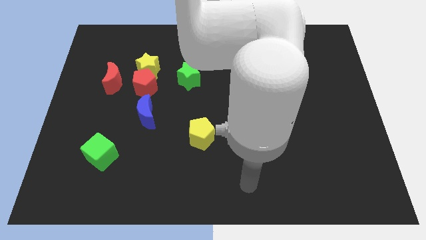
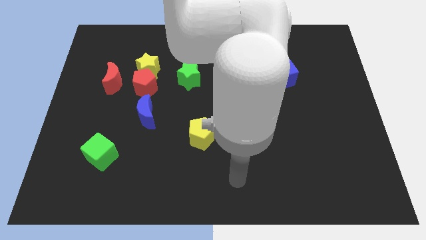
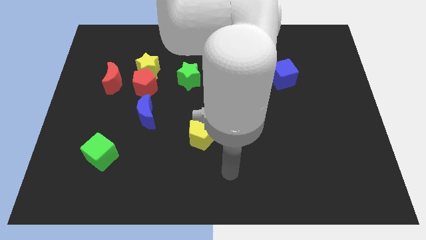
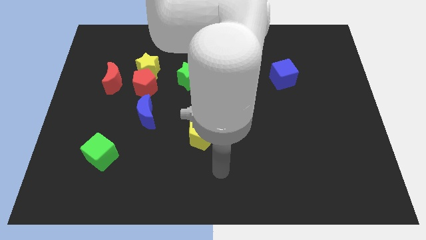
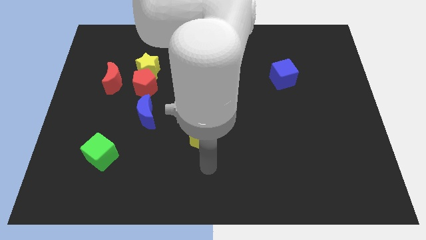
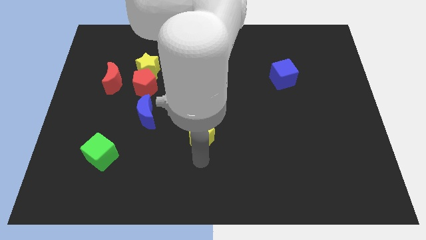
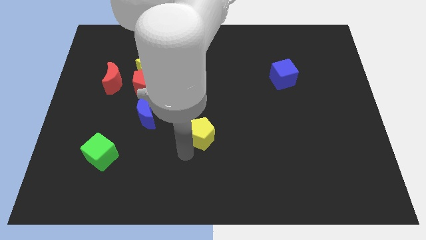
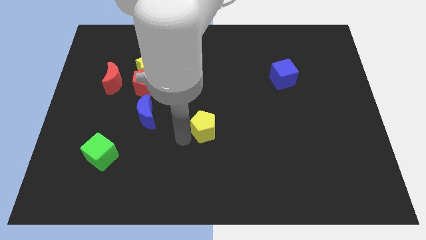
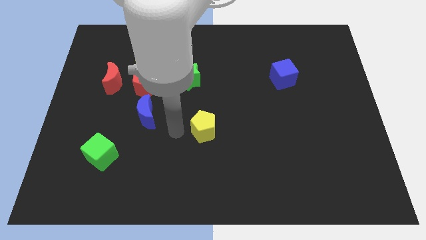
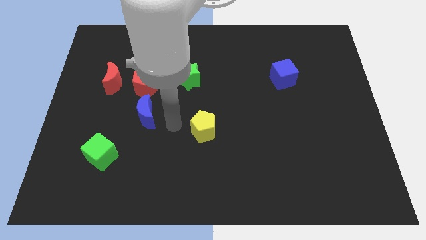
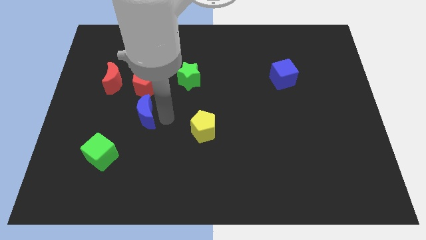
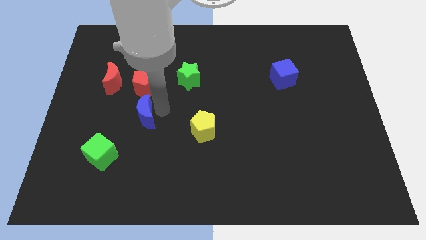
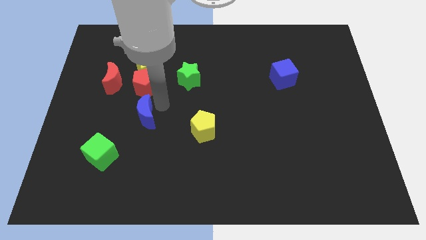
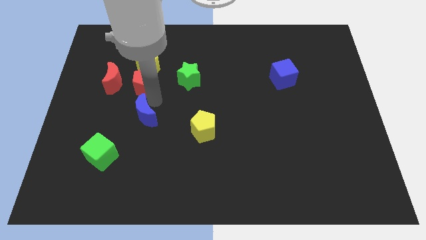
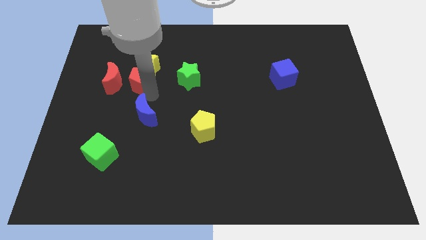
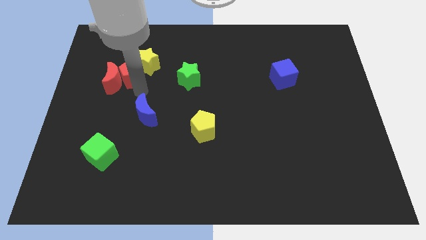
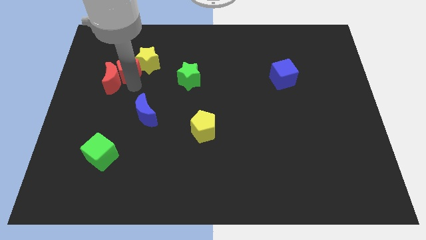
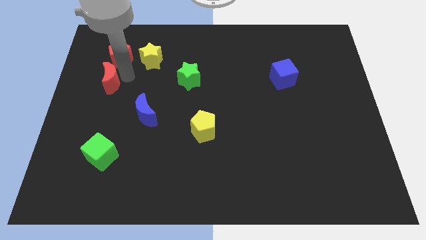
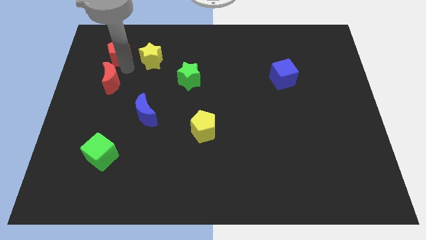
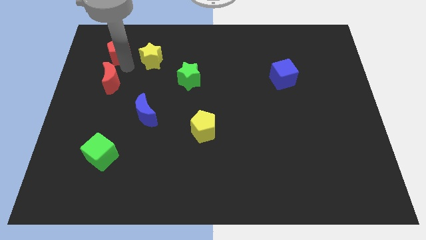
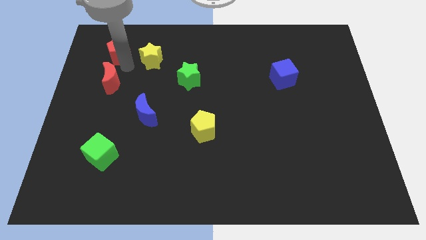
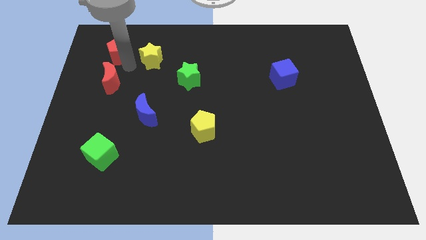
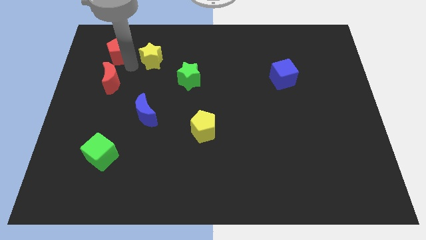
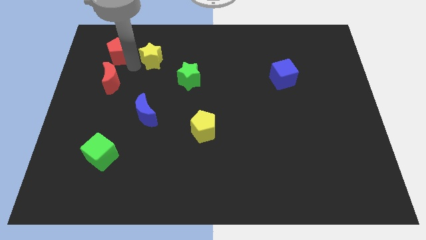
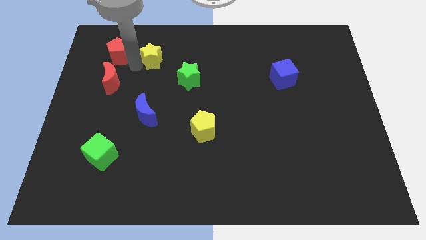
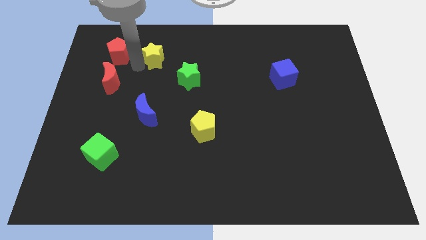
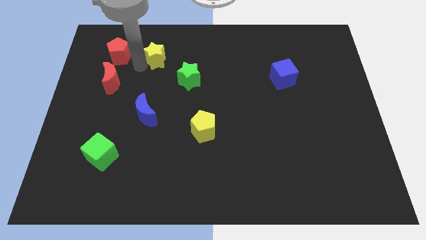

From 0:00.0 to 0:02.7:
pull the yellow star apart from the red pentagon and red moon

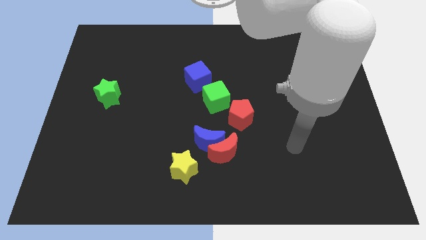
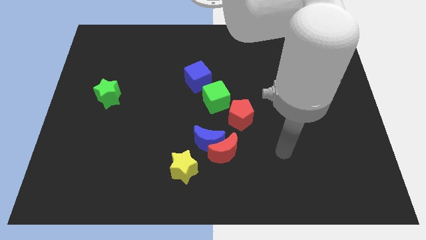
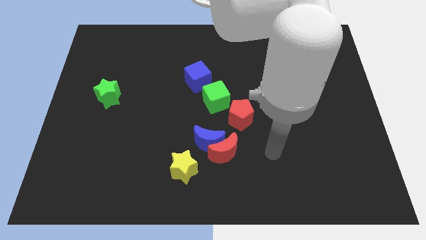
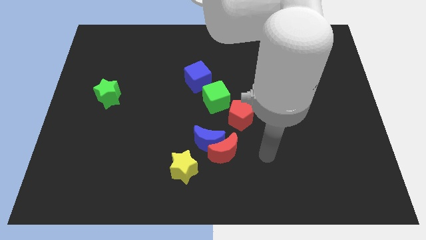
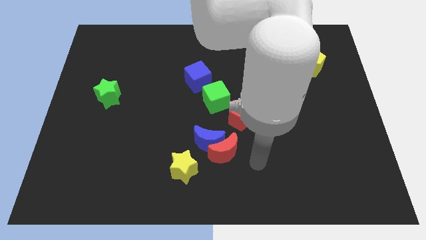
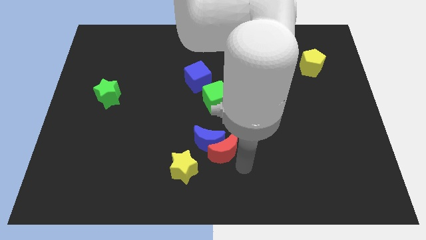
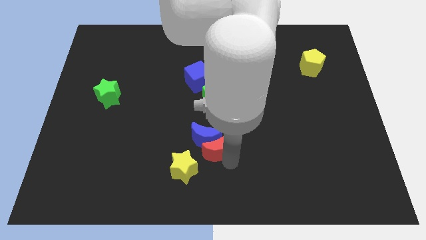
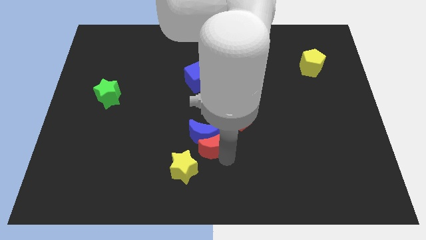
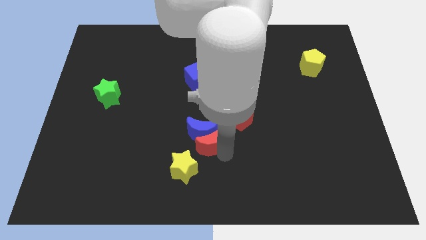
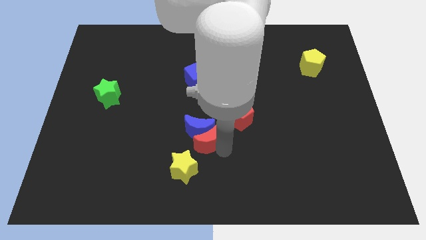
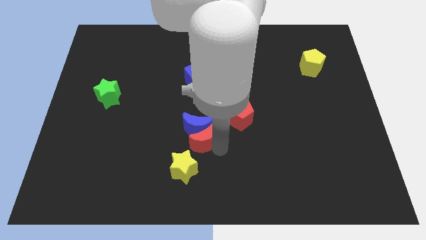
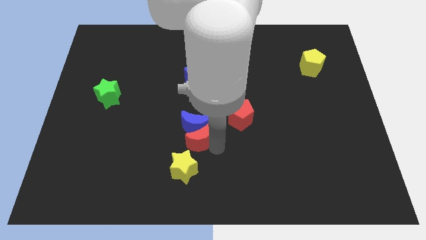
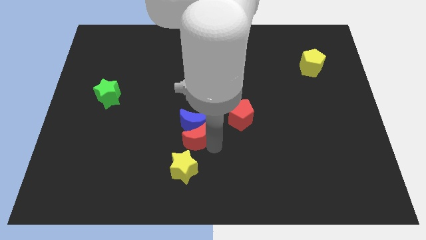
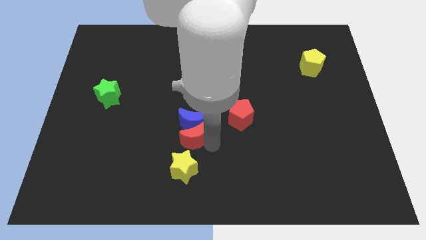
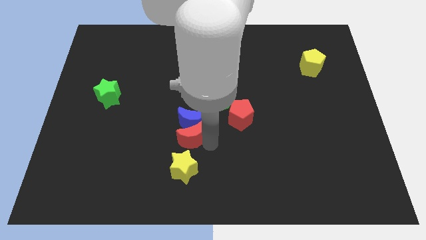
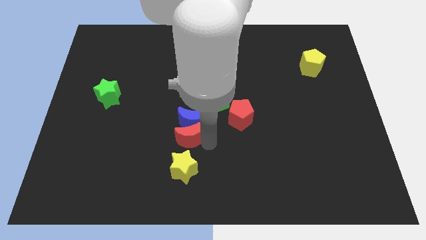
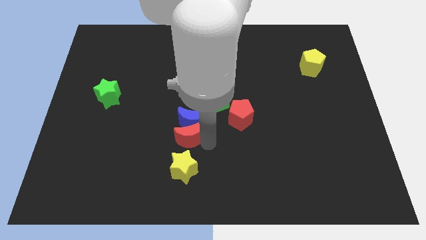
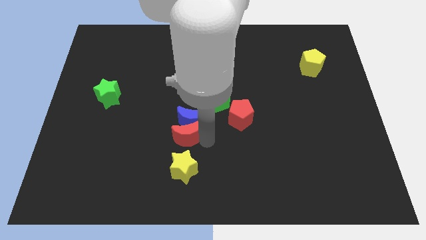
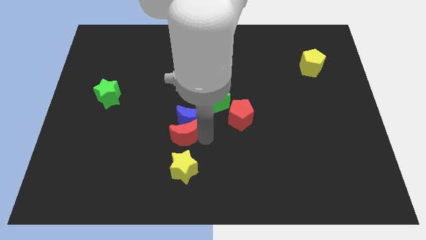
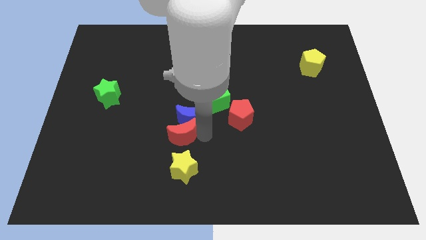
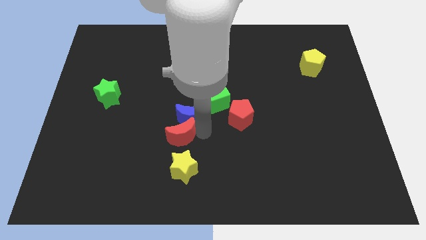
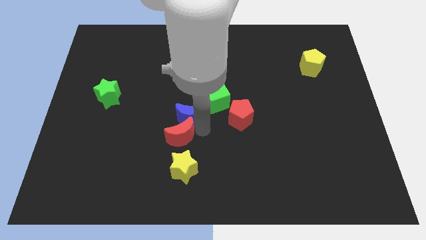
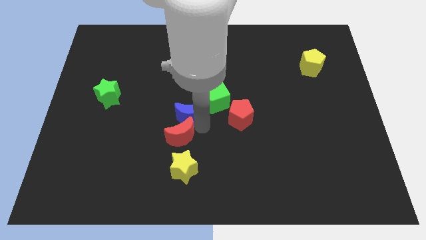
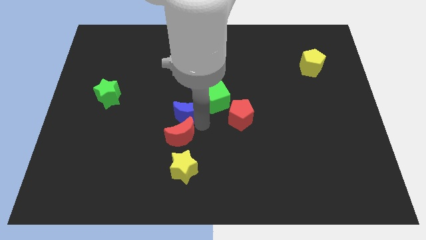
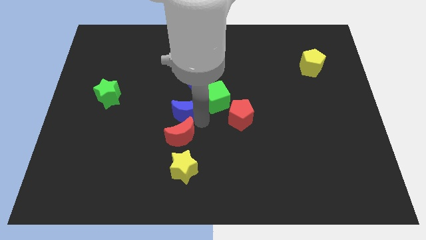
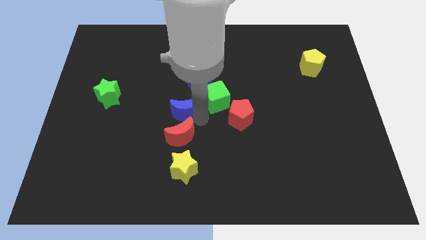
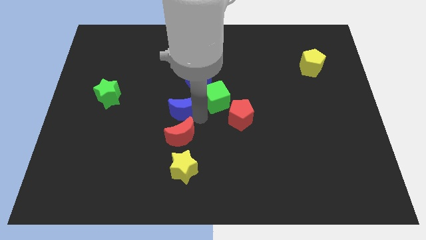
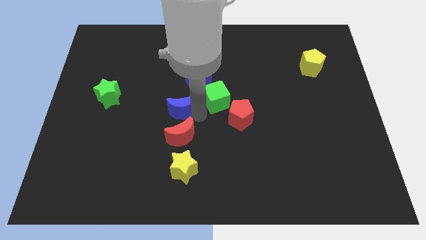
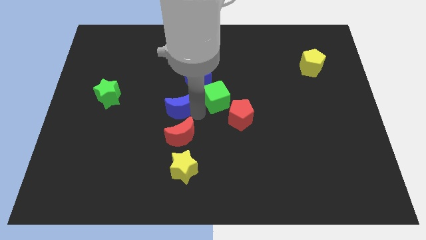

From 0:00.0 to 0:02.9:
move the blue moon away from the group

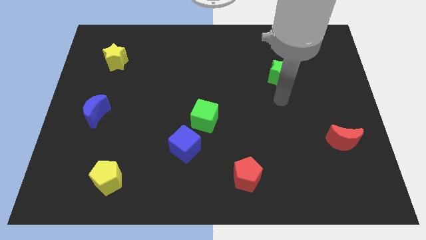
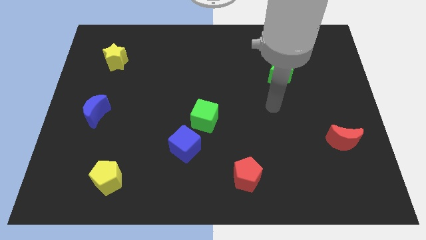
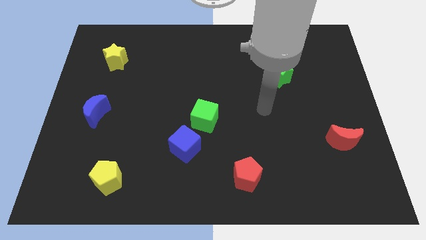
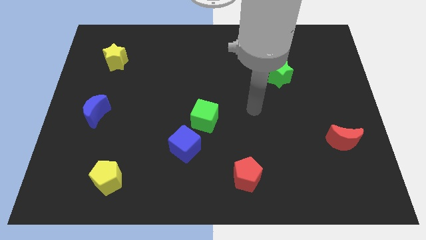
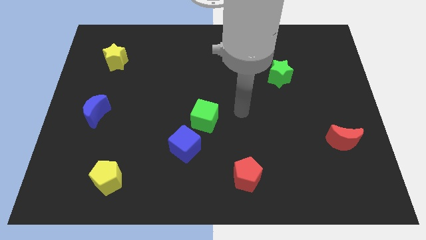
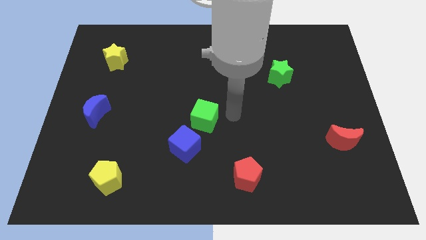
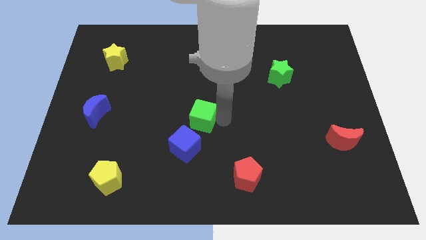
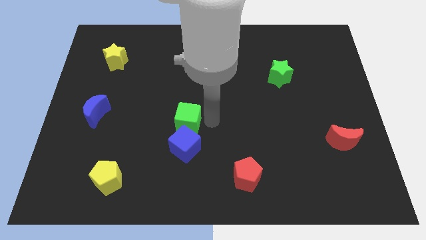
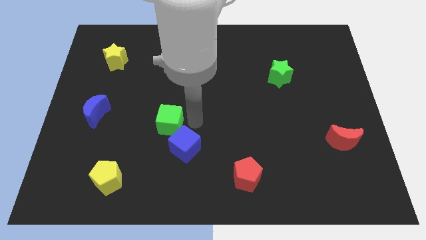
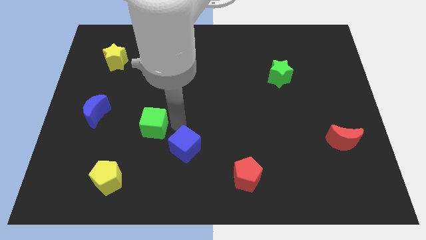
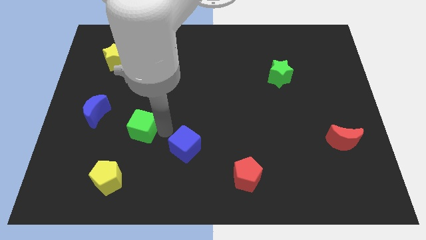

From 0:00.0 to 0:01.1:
pull the blue cube apart from the green cube

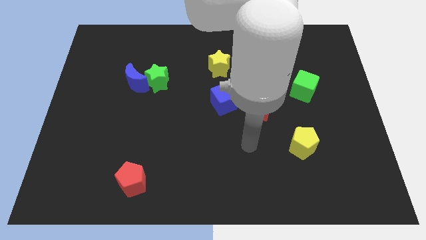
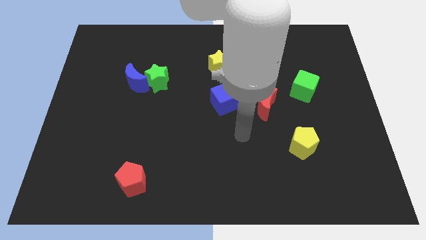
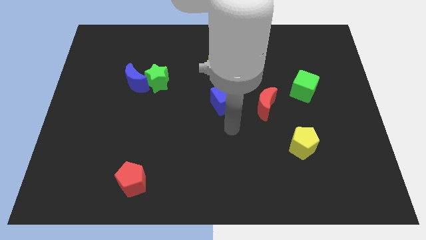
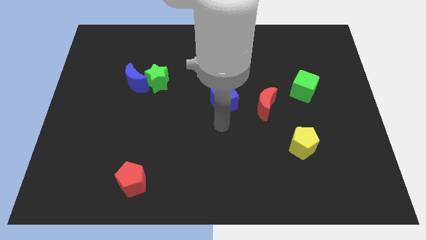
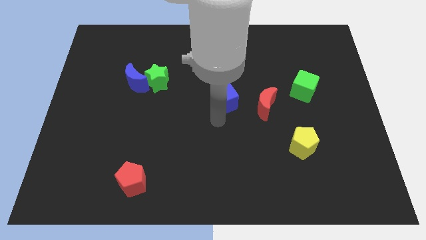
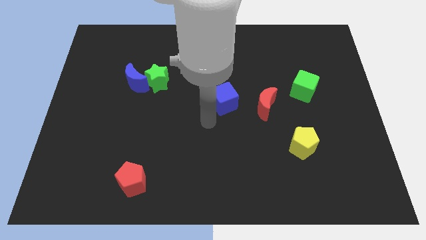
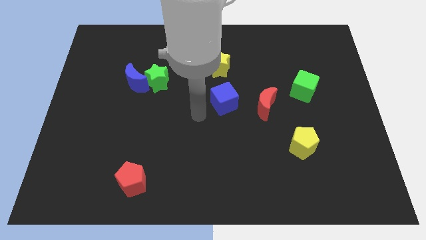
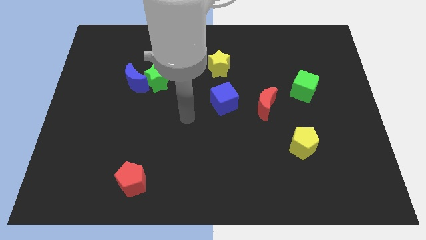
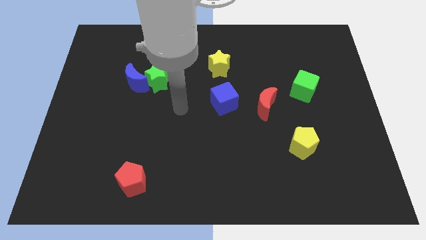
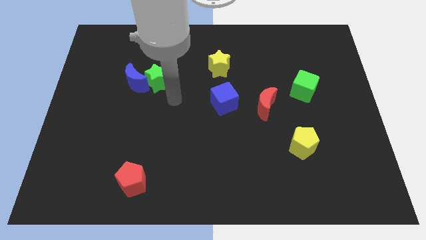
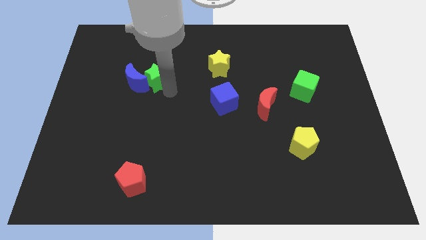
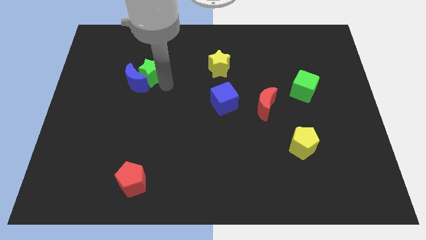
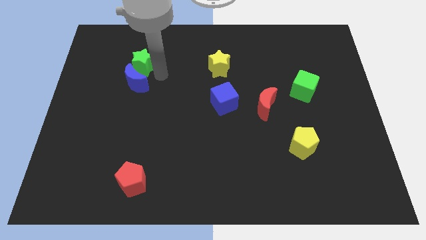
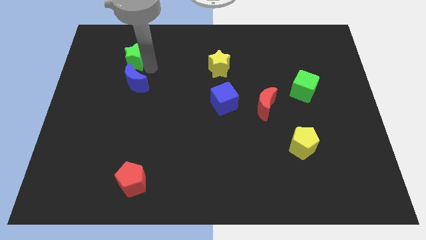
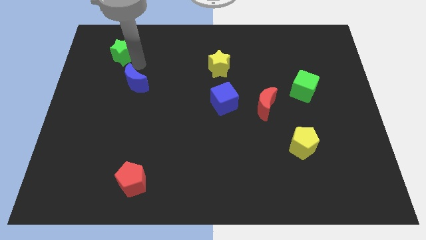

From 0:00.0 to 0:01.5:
move the blue moon away from the green star

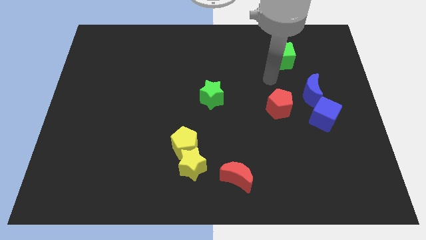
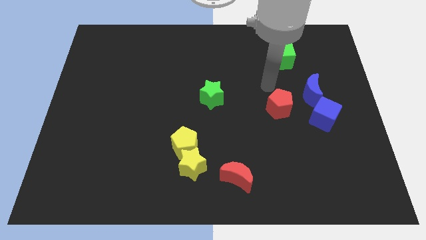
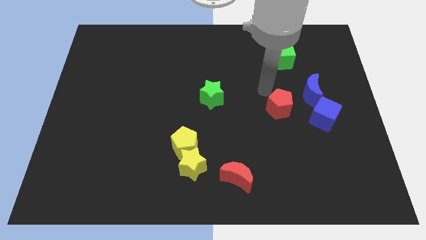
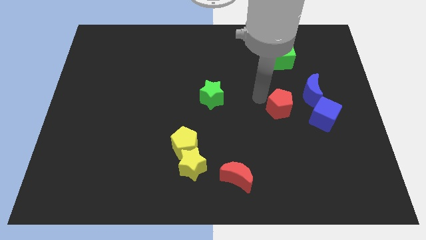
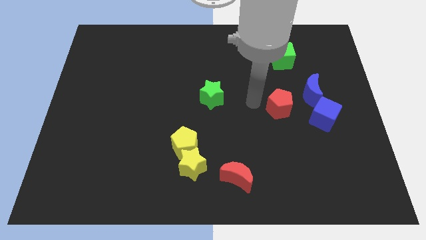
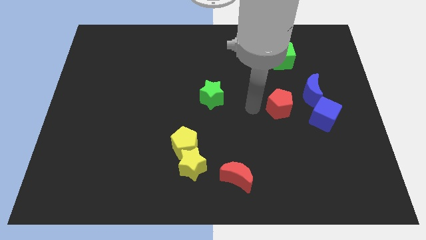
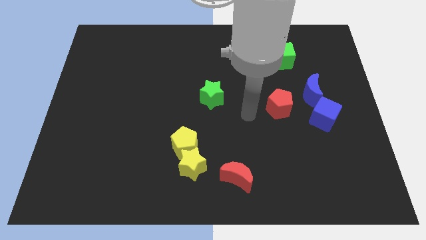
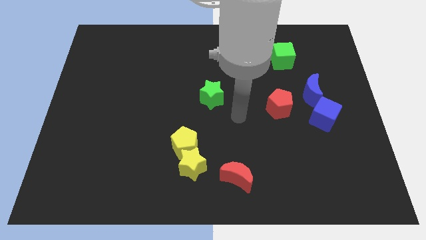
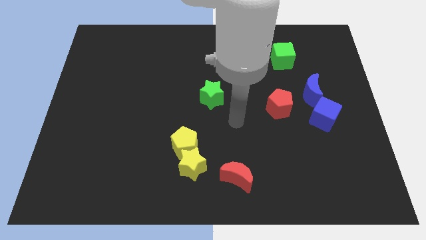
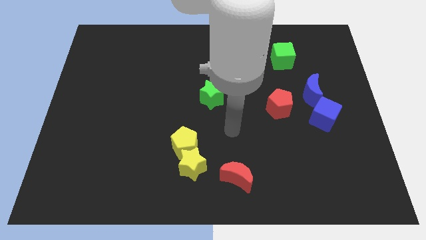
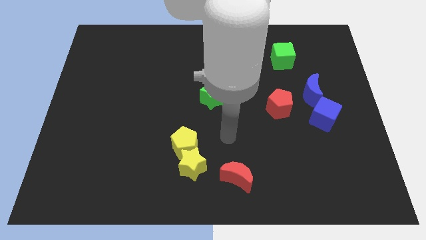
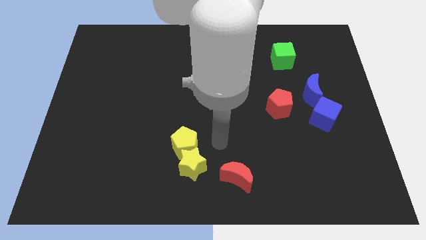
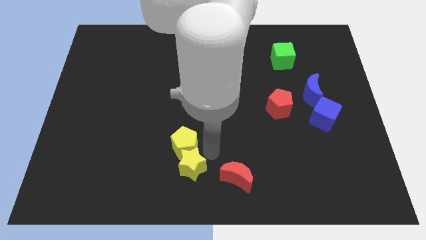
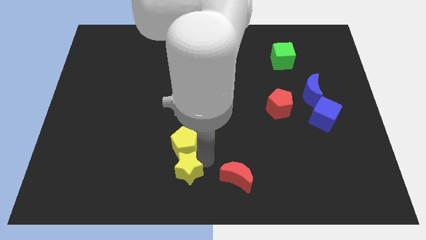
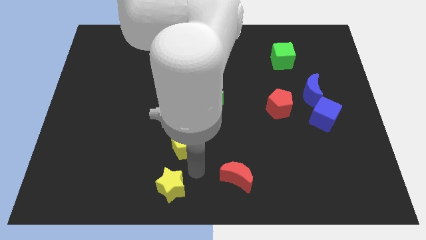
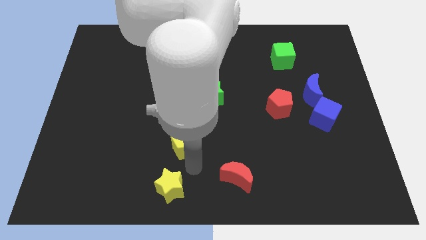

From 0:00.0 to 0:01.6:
pull the yellow pentagon apart from the yellow star
